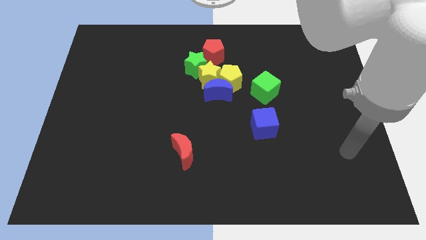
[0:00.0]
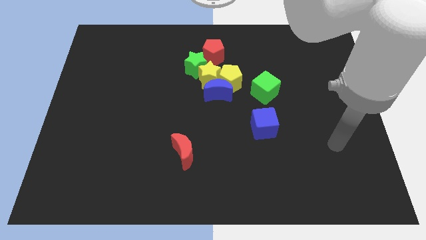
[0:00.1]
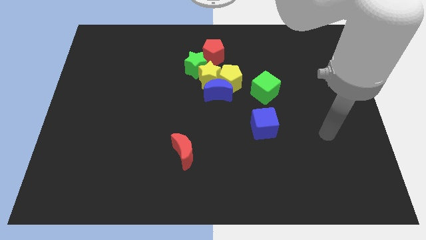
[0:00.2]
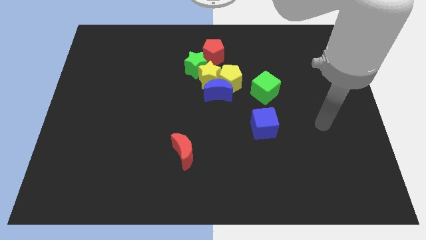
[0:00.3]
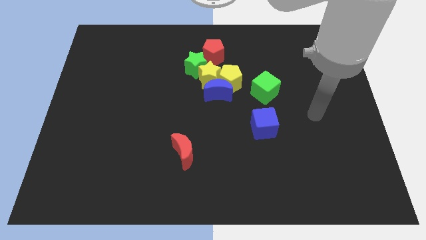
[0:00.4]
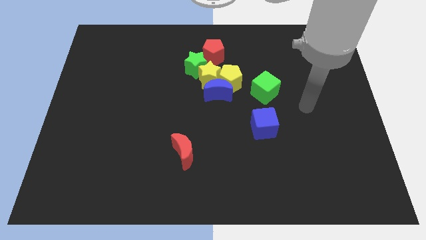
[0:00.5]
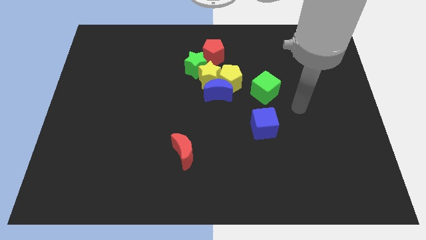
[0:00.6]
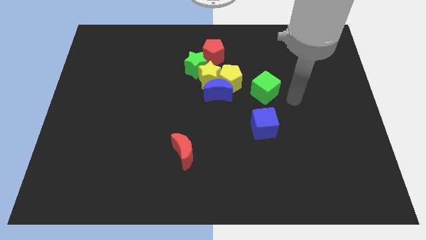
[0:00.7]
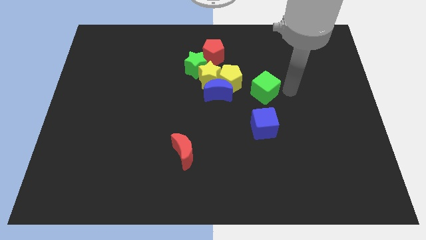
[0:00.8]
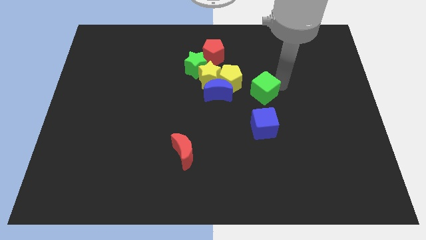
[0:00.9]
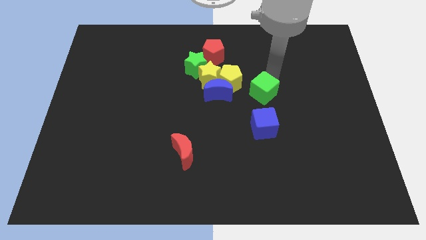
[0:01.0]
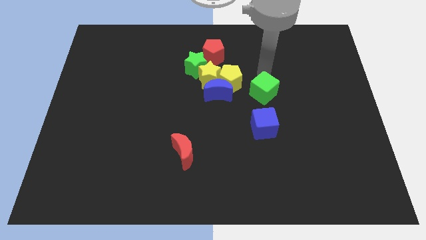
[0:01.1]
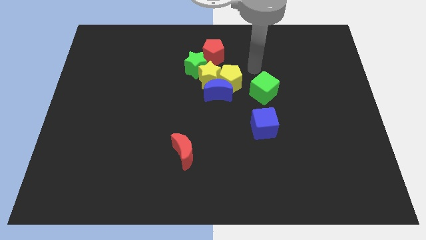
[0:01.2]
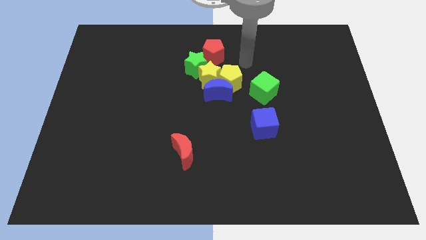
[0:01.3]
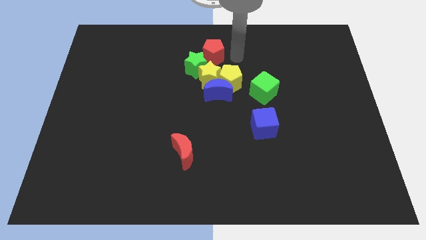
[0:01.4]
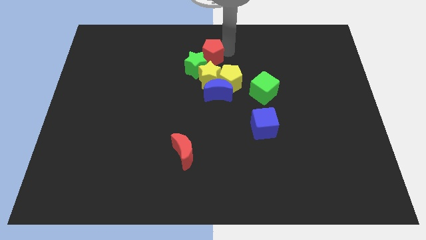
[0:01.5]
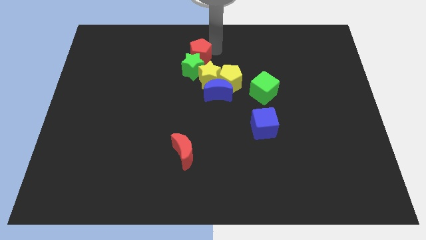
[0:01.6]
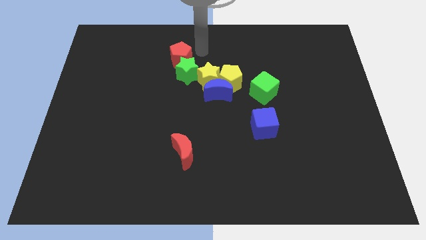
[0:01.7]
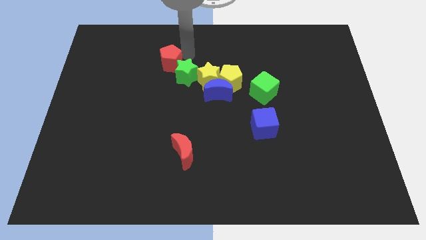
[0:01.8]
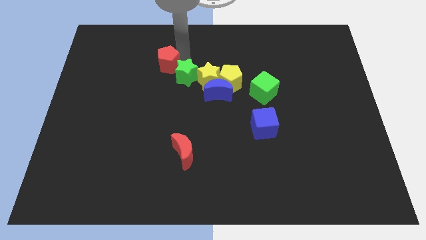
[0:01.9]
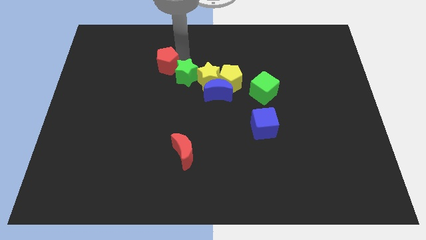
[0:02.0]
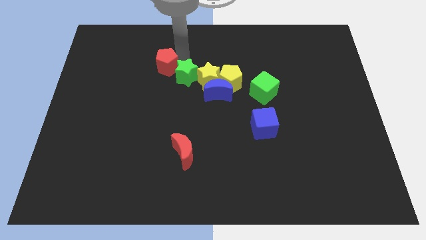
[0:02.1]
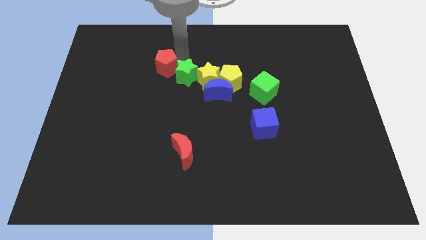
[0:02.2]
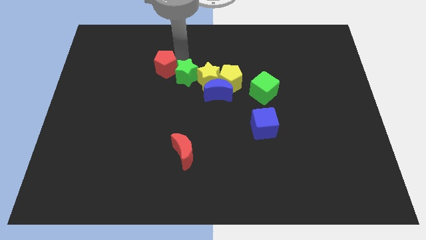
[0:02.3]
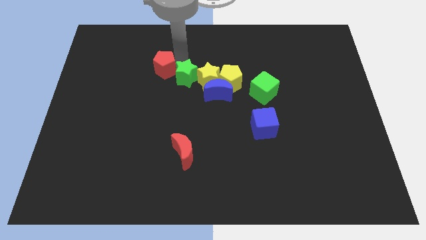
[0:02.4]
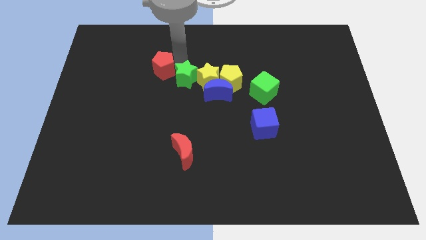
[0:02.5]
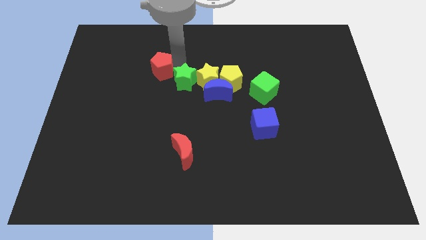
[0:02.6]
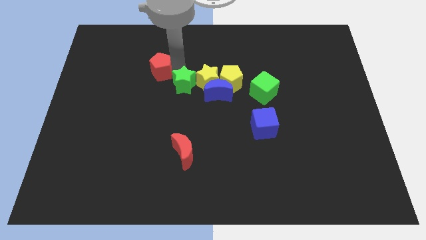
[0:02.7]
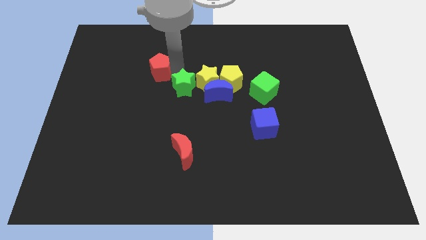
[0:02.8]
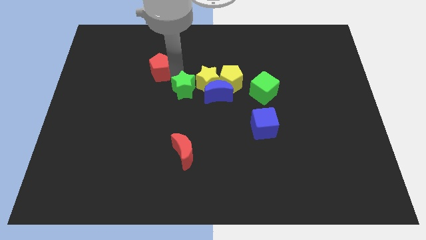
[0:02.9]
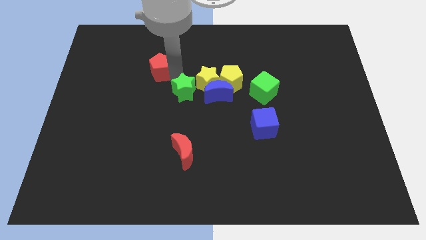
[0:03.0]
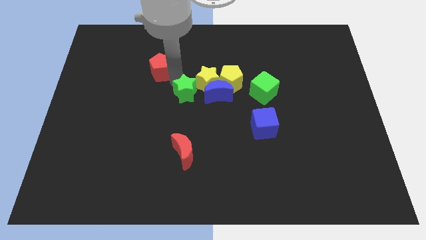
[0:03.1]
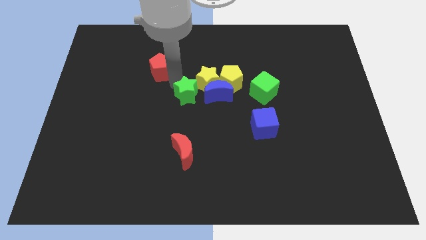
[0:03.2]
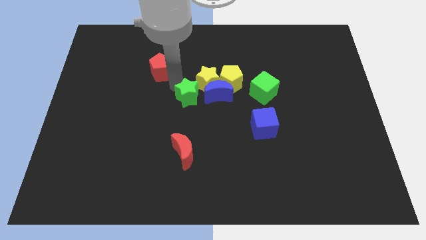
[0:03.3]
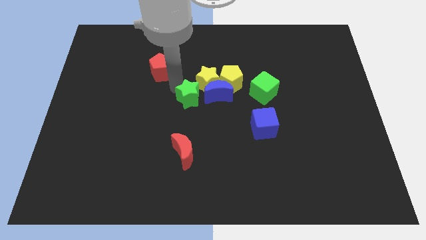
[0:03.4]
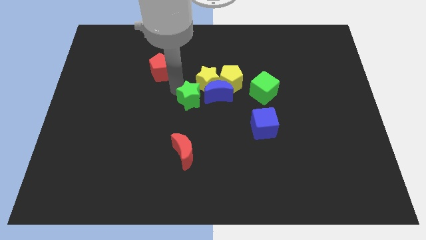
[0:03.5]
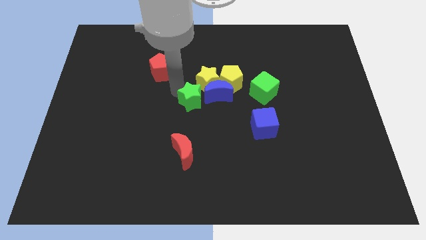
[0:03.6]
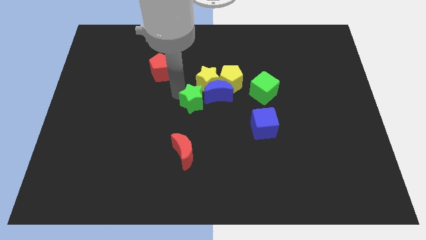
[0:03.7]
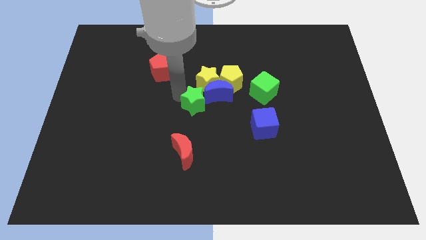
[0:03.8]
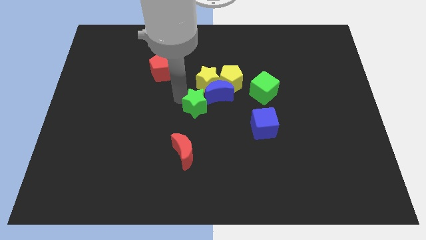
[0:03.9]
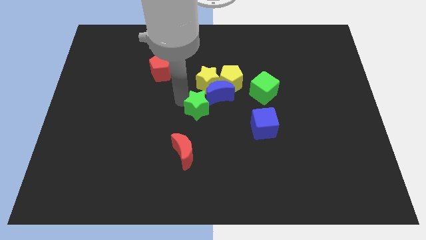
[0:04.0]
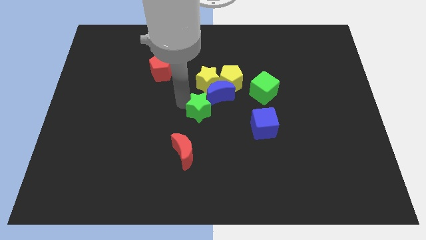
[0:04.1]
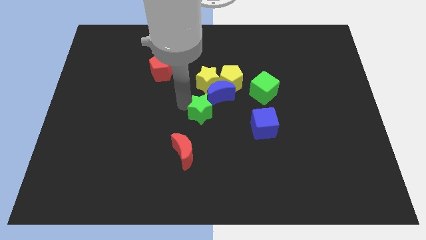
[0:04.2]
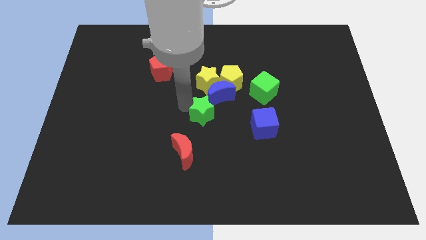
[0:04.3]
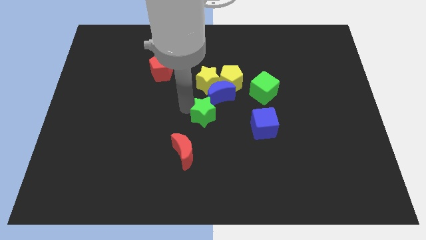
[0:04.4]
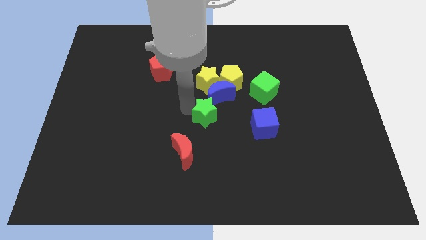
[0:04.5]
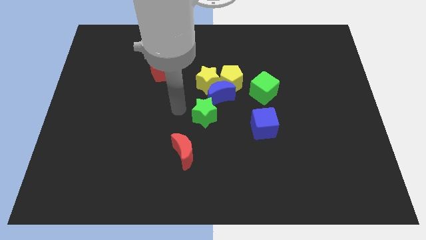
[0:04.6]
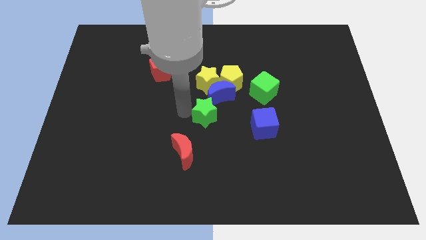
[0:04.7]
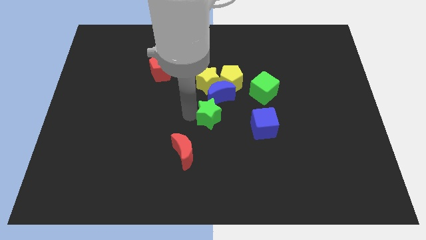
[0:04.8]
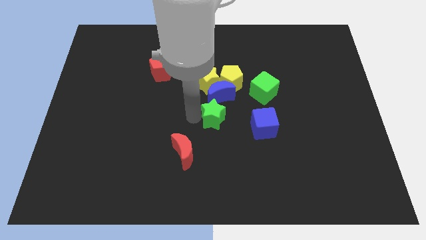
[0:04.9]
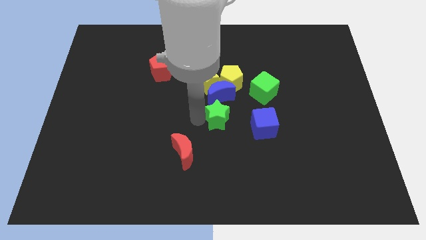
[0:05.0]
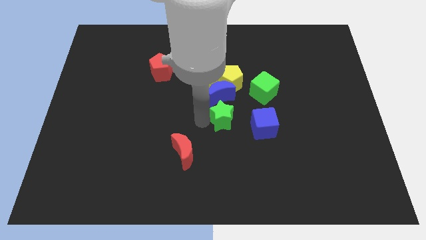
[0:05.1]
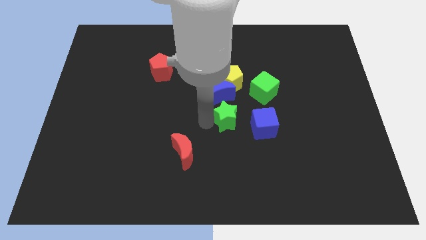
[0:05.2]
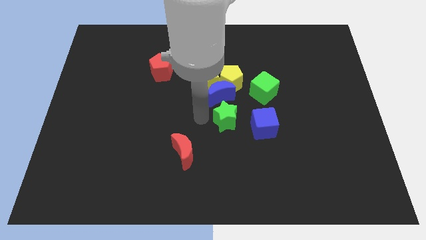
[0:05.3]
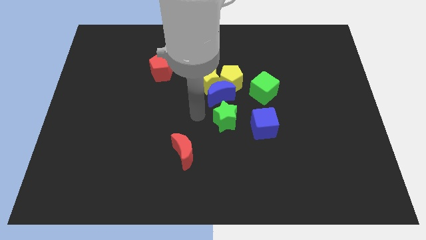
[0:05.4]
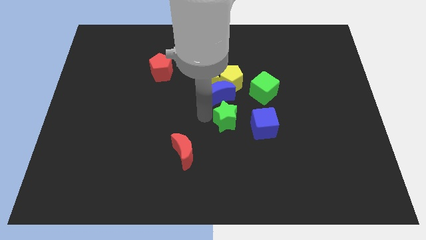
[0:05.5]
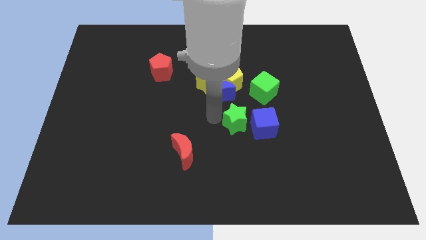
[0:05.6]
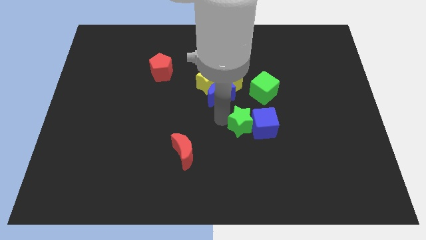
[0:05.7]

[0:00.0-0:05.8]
slide the green star next to the blue cube
